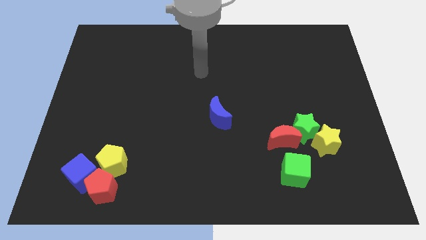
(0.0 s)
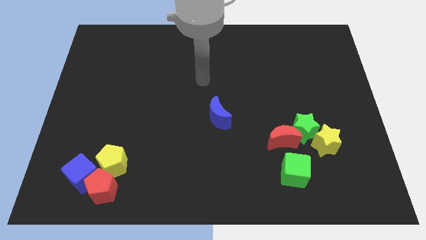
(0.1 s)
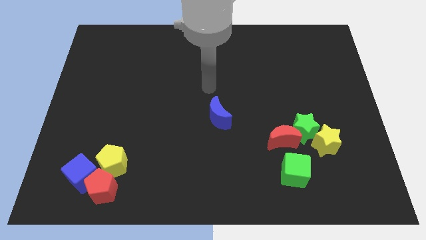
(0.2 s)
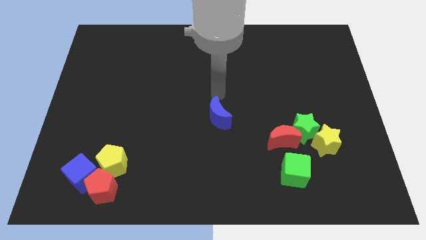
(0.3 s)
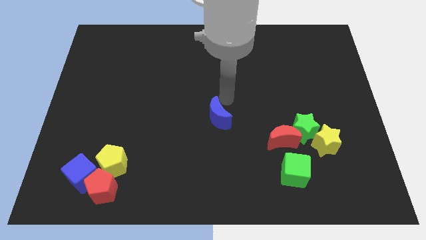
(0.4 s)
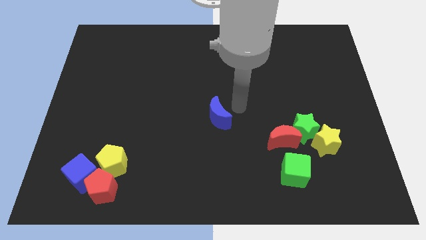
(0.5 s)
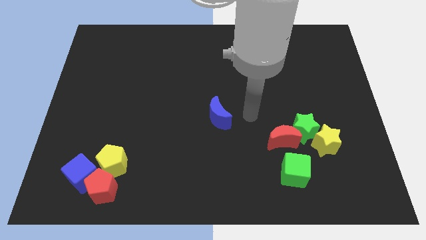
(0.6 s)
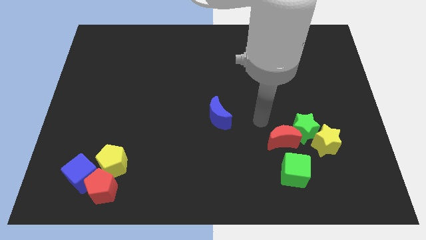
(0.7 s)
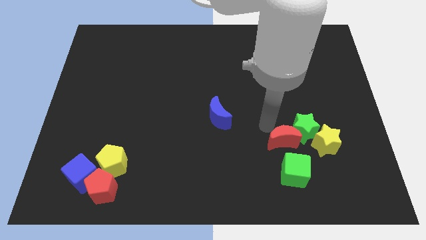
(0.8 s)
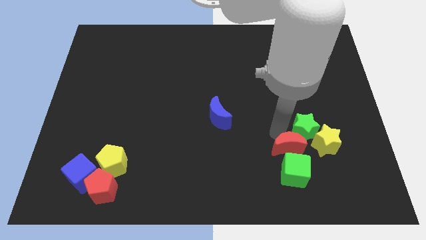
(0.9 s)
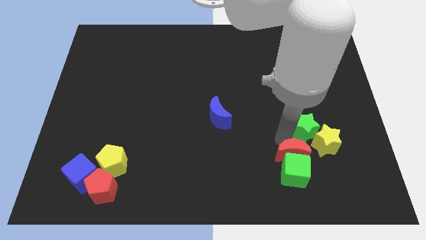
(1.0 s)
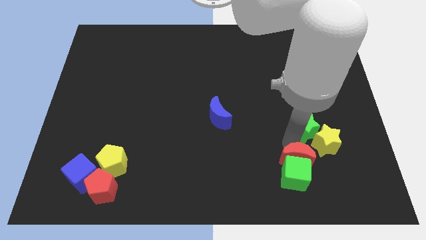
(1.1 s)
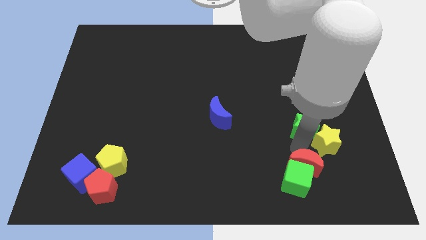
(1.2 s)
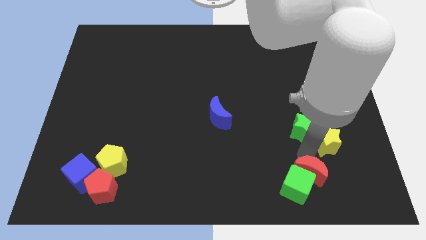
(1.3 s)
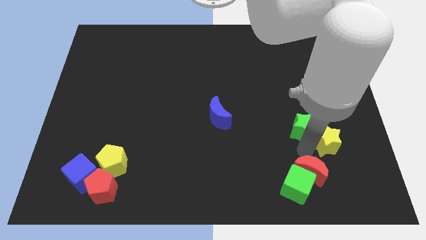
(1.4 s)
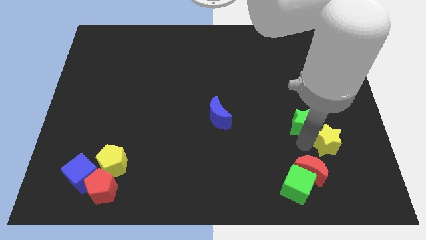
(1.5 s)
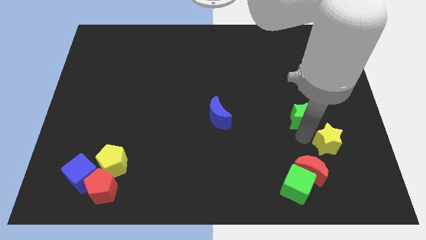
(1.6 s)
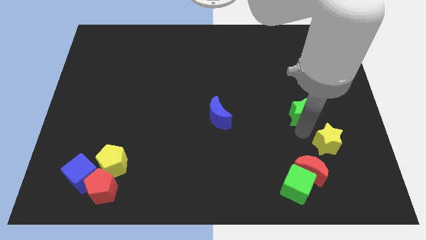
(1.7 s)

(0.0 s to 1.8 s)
separate the green star from the yellow star and red moon

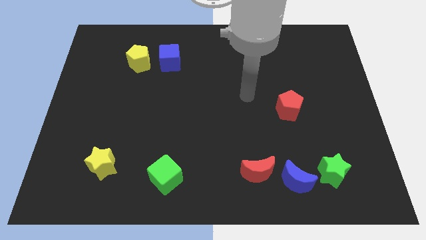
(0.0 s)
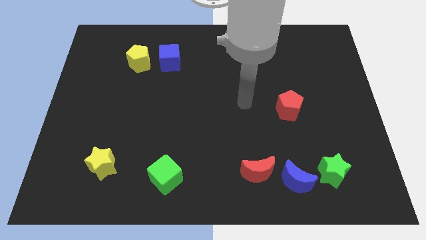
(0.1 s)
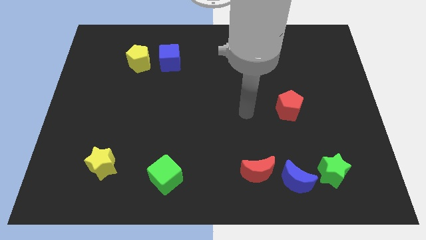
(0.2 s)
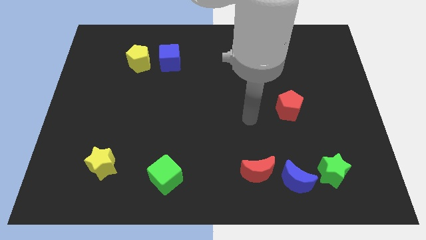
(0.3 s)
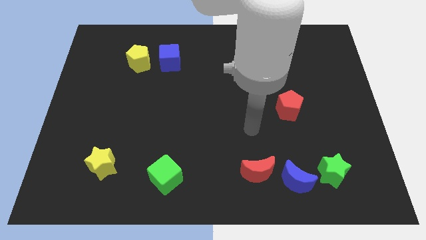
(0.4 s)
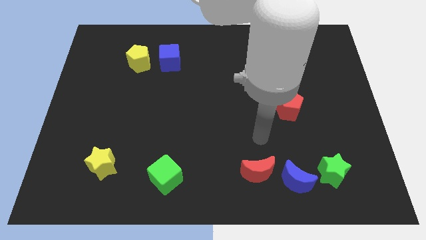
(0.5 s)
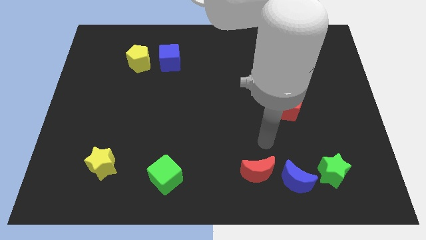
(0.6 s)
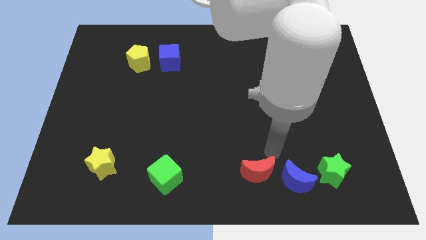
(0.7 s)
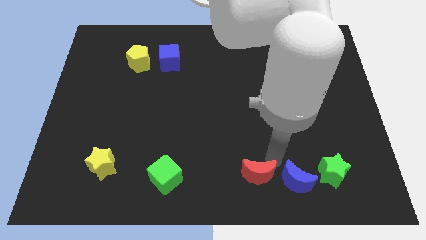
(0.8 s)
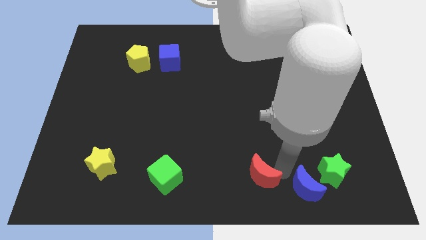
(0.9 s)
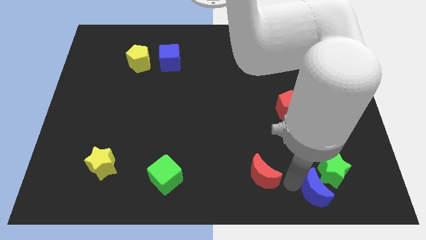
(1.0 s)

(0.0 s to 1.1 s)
move the red moon away from the blue moon

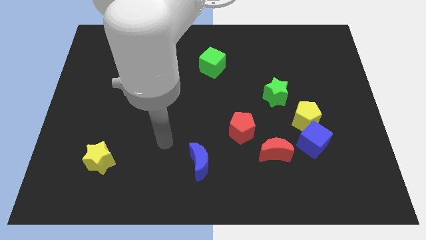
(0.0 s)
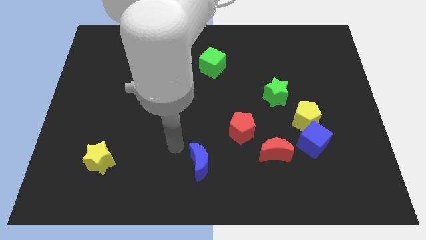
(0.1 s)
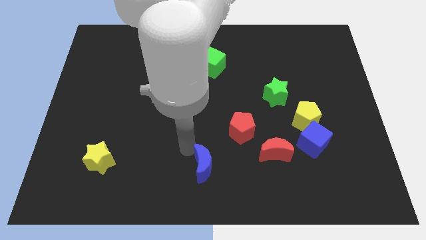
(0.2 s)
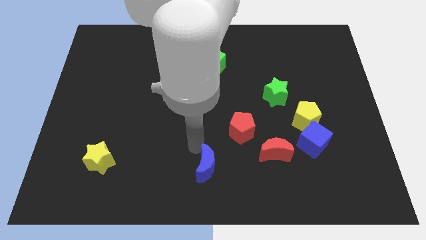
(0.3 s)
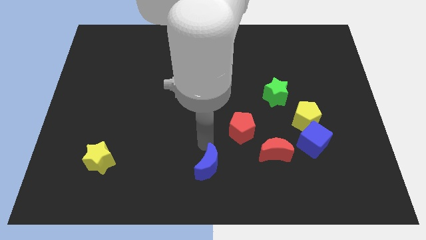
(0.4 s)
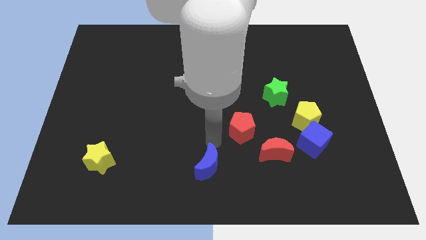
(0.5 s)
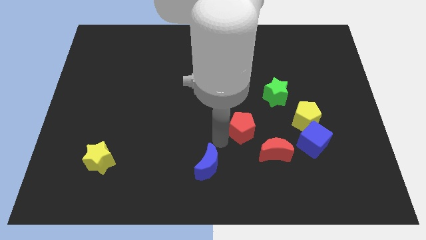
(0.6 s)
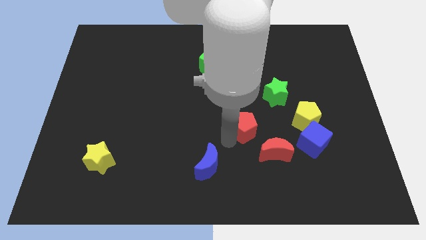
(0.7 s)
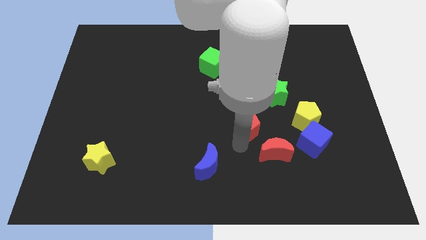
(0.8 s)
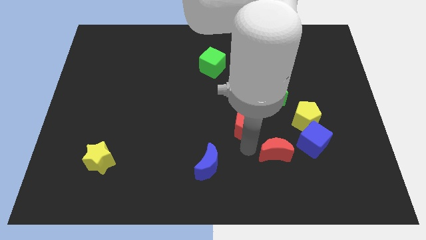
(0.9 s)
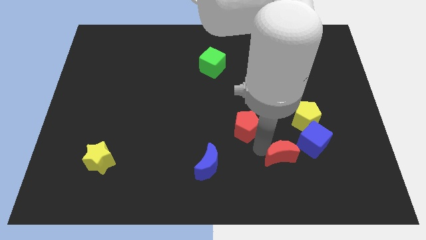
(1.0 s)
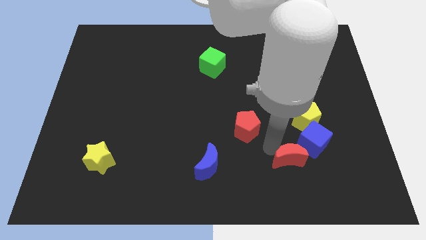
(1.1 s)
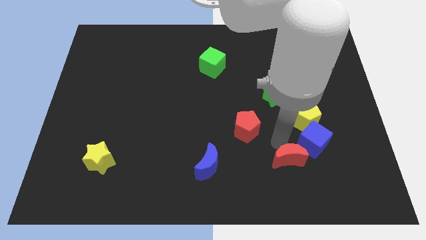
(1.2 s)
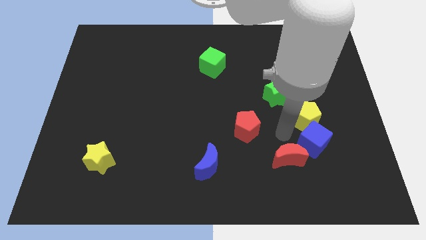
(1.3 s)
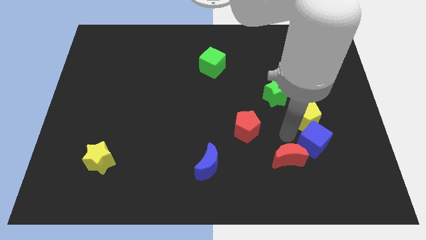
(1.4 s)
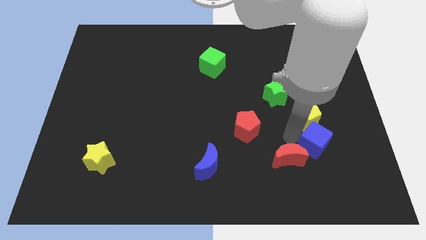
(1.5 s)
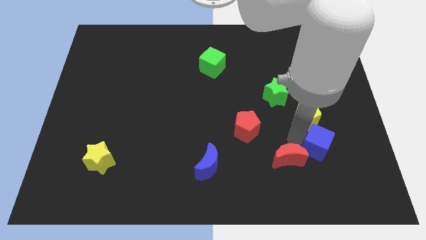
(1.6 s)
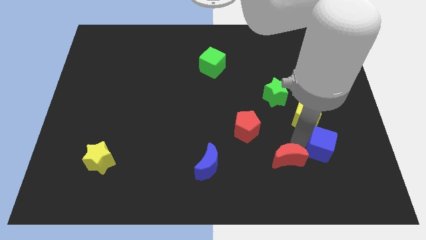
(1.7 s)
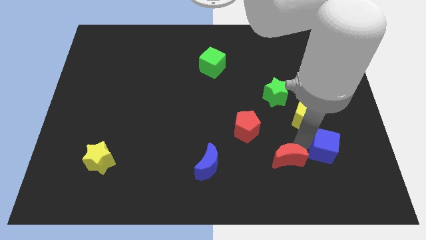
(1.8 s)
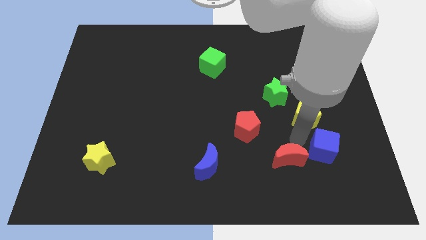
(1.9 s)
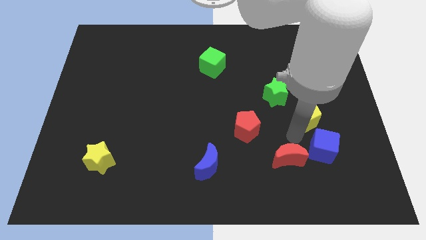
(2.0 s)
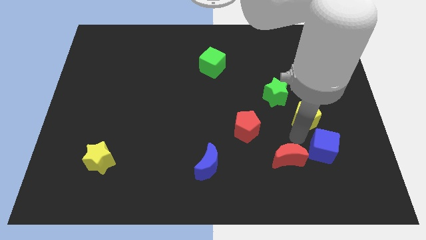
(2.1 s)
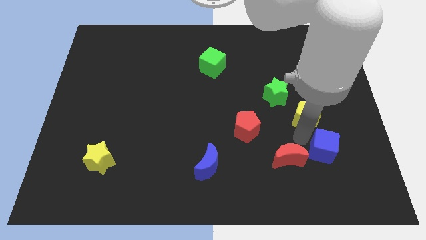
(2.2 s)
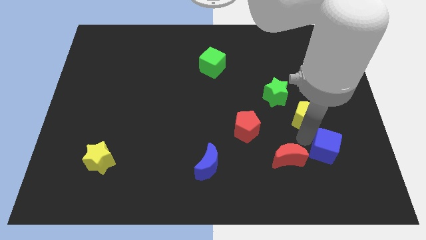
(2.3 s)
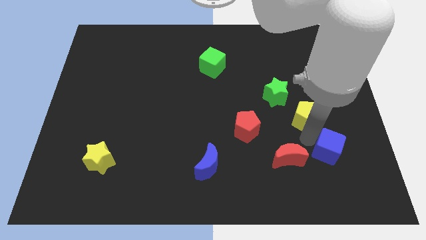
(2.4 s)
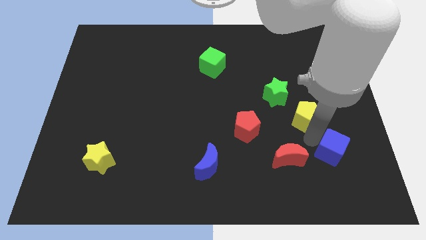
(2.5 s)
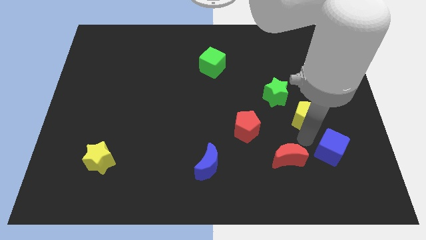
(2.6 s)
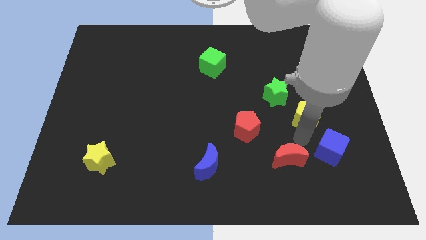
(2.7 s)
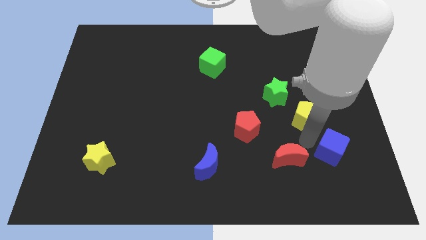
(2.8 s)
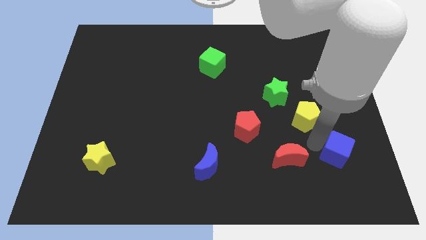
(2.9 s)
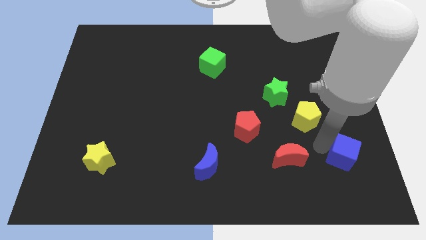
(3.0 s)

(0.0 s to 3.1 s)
move the blue cube away from the yellow pentagon and red moon

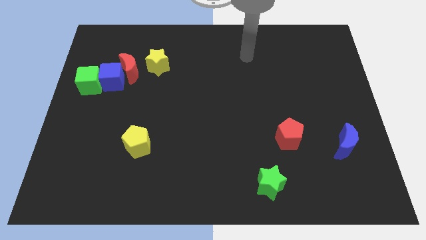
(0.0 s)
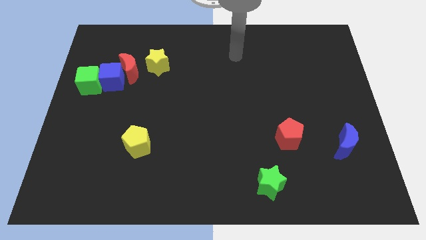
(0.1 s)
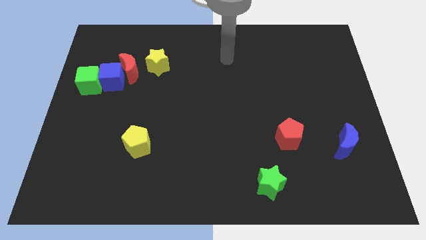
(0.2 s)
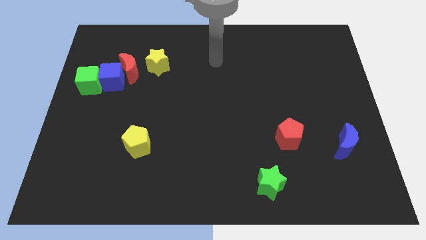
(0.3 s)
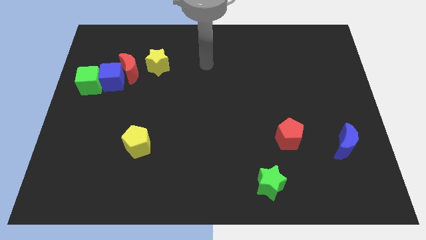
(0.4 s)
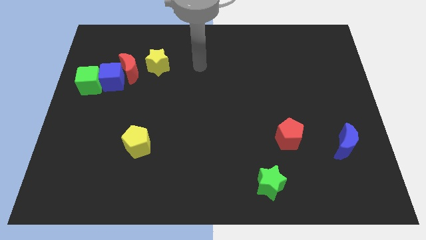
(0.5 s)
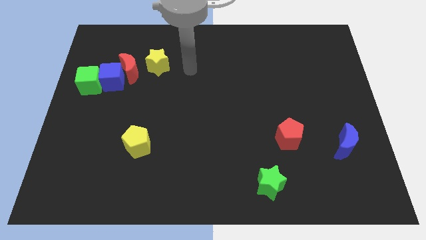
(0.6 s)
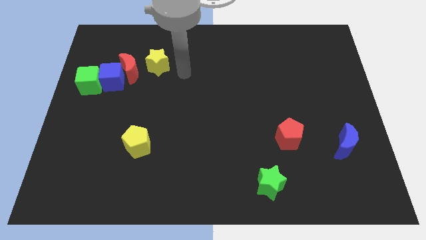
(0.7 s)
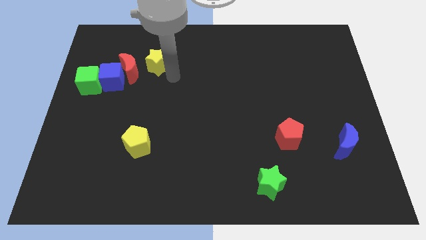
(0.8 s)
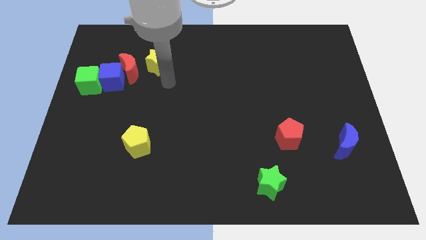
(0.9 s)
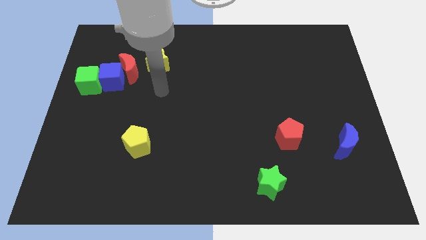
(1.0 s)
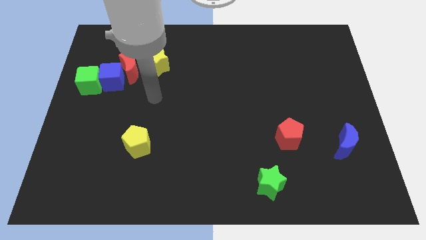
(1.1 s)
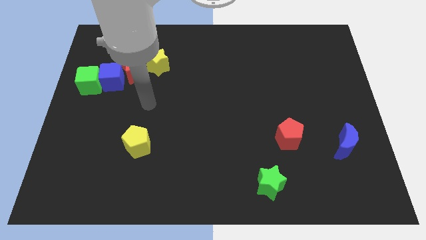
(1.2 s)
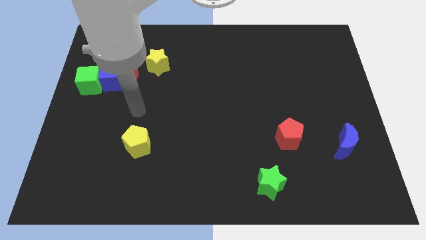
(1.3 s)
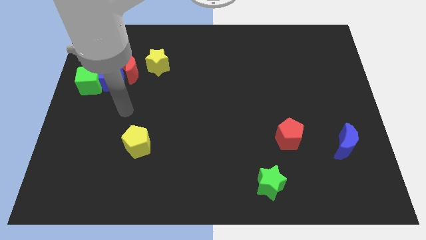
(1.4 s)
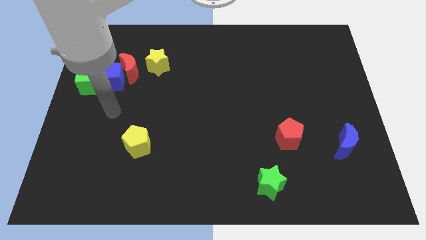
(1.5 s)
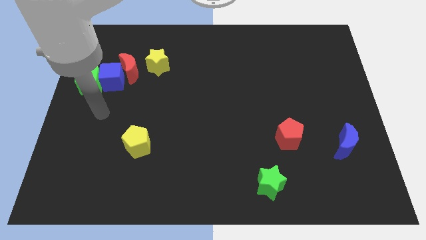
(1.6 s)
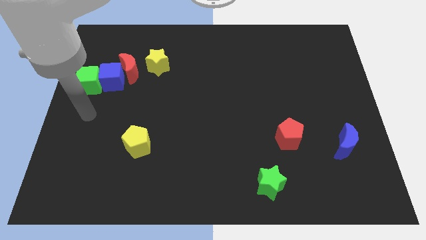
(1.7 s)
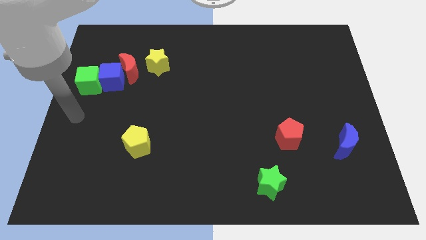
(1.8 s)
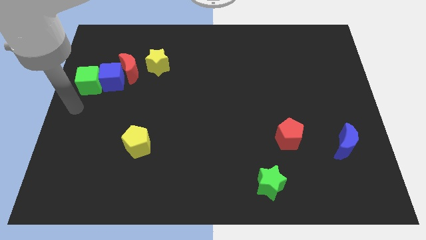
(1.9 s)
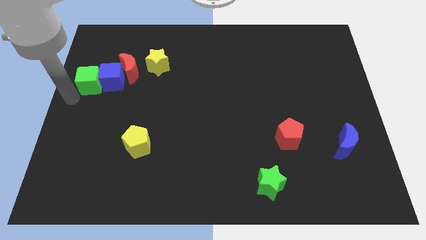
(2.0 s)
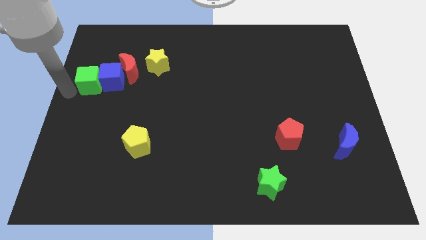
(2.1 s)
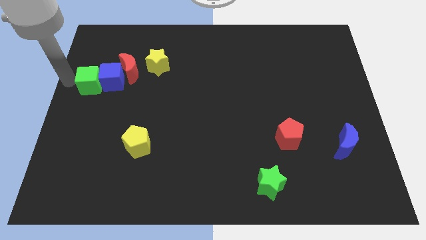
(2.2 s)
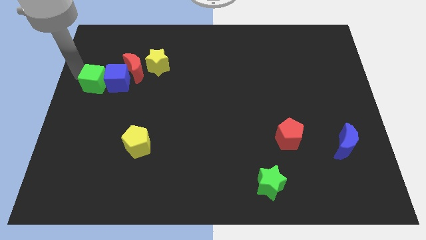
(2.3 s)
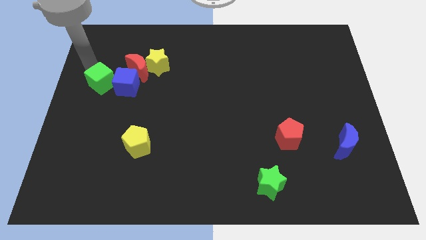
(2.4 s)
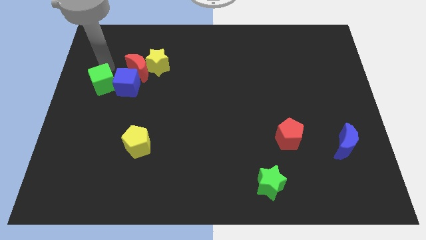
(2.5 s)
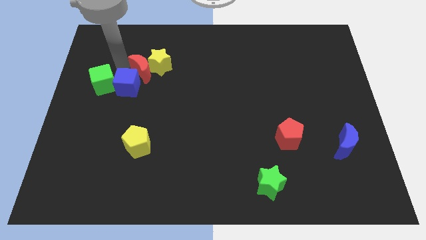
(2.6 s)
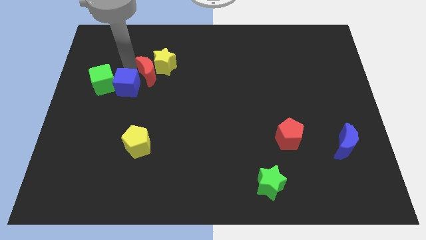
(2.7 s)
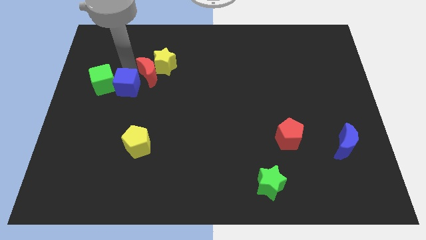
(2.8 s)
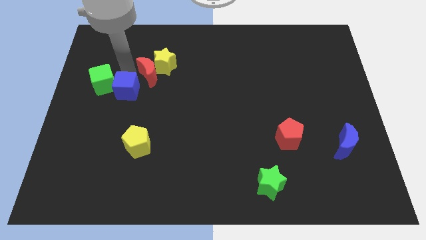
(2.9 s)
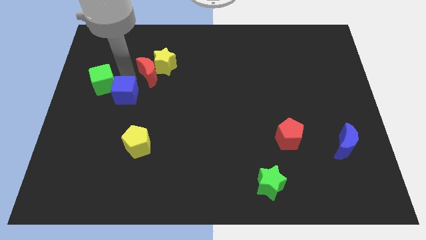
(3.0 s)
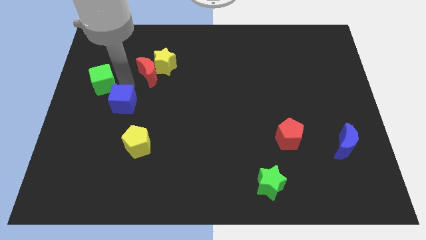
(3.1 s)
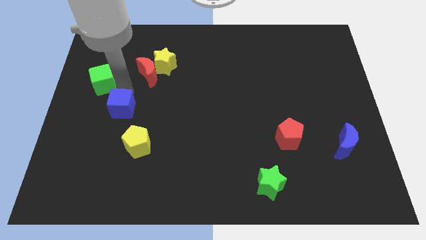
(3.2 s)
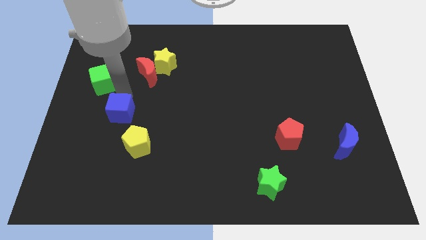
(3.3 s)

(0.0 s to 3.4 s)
move the blue cube away from the red moon and green cube
